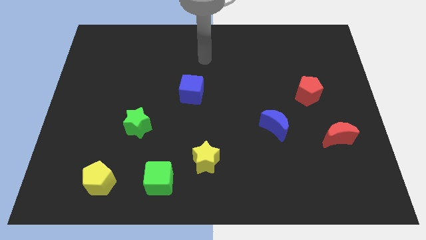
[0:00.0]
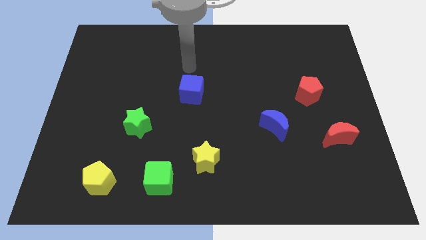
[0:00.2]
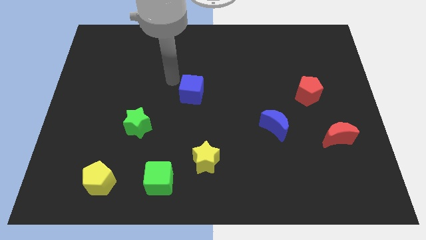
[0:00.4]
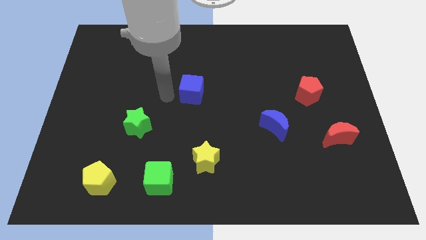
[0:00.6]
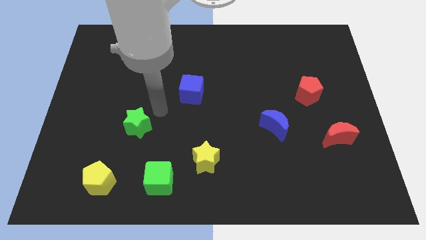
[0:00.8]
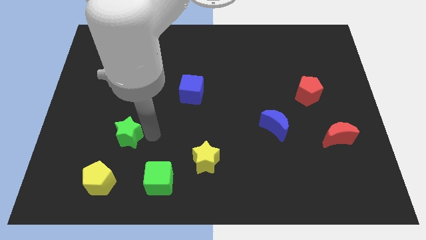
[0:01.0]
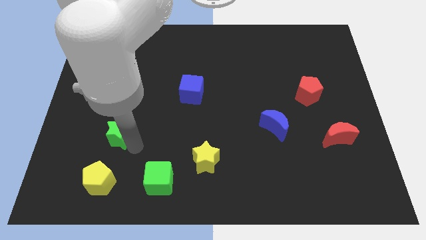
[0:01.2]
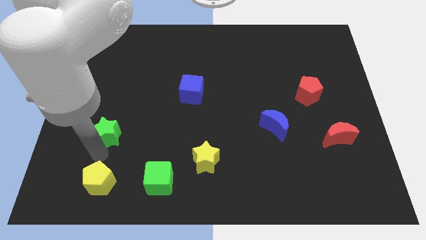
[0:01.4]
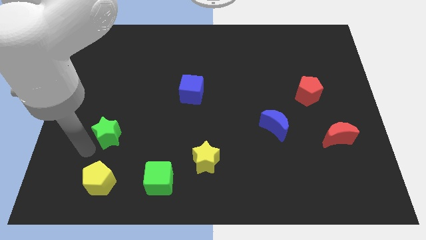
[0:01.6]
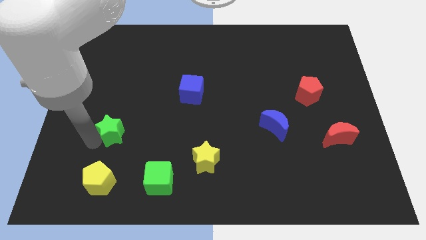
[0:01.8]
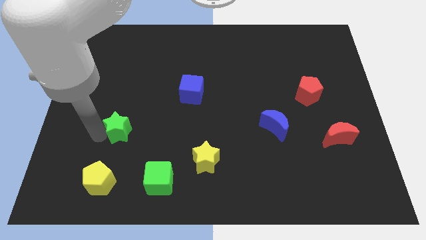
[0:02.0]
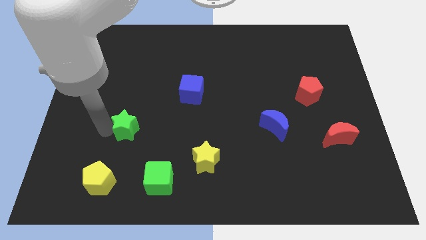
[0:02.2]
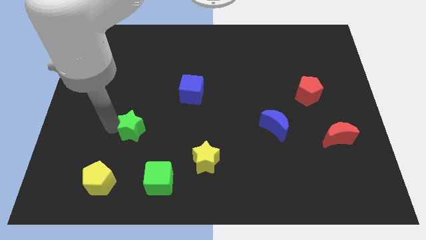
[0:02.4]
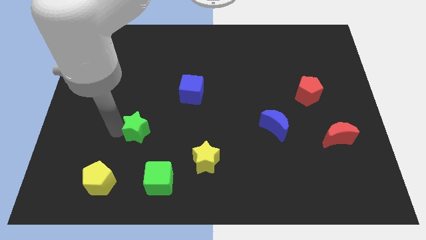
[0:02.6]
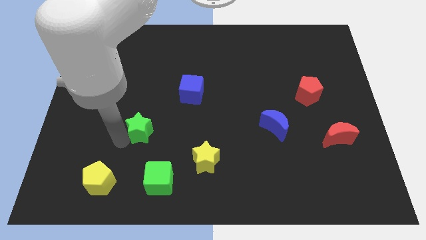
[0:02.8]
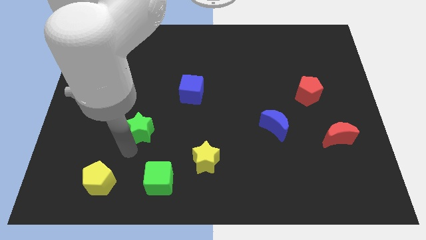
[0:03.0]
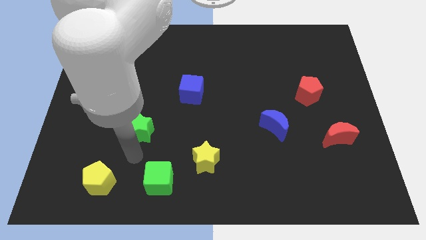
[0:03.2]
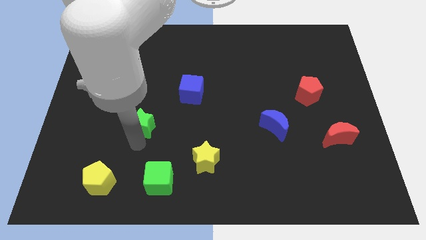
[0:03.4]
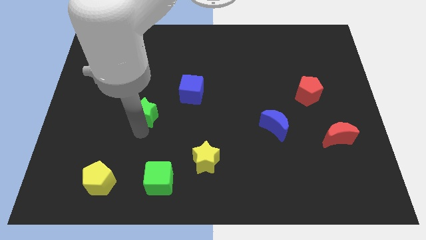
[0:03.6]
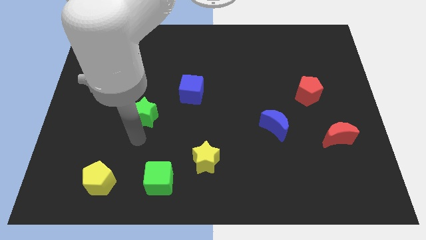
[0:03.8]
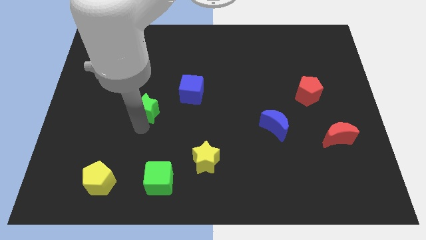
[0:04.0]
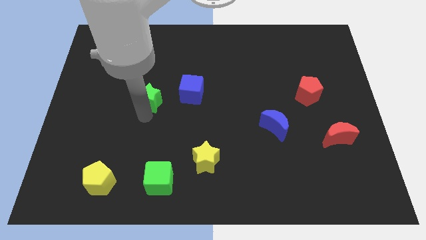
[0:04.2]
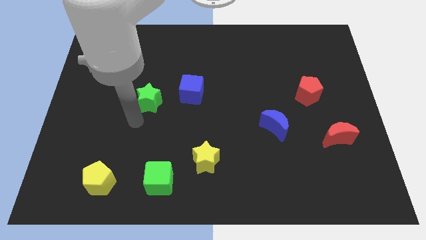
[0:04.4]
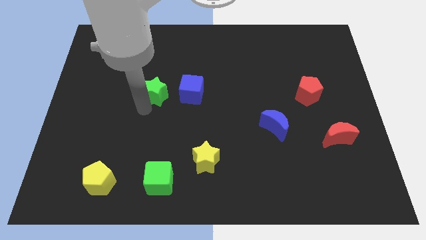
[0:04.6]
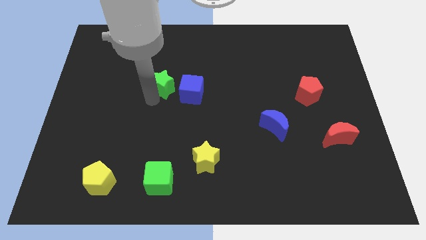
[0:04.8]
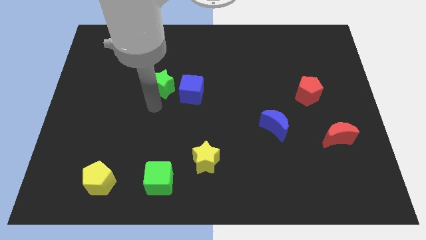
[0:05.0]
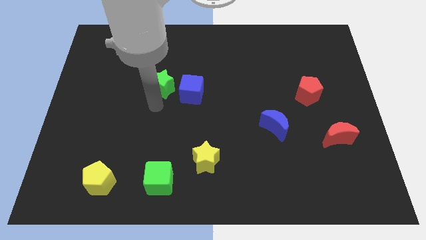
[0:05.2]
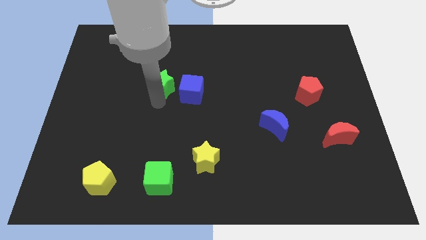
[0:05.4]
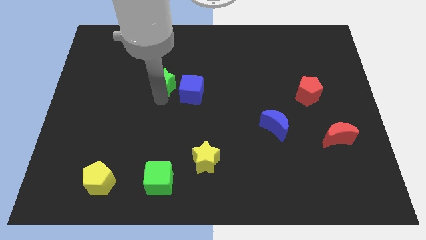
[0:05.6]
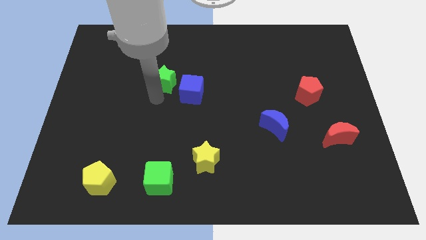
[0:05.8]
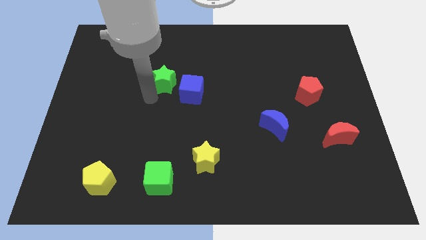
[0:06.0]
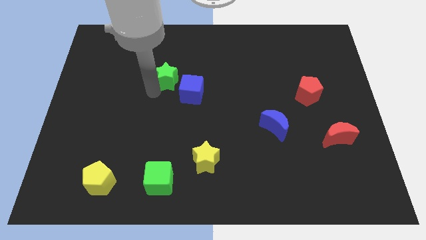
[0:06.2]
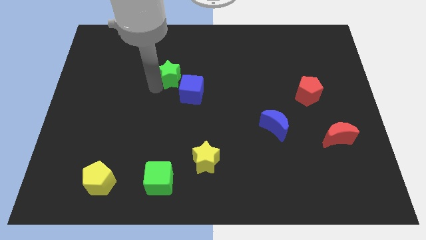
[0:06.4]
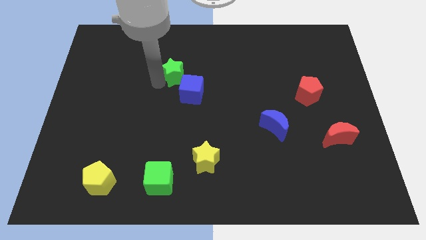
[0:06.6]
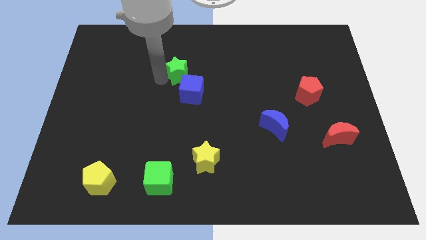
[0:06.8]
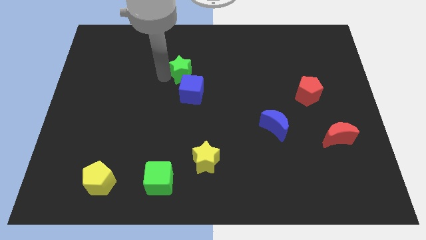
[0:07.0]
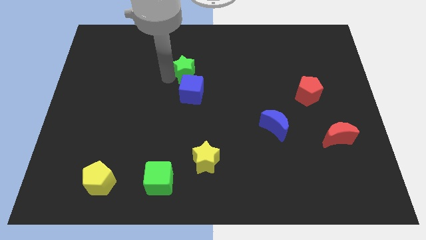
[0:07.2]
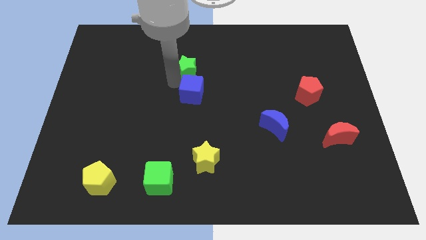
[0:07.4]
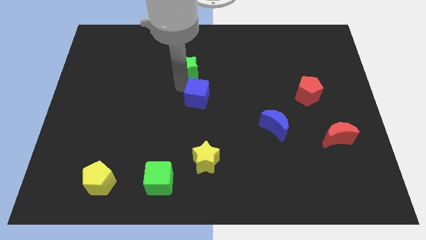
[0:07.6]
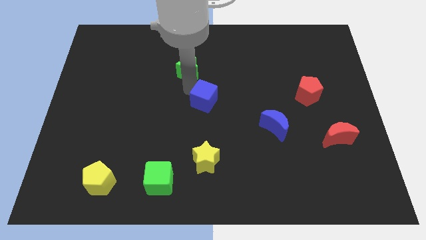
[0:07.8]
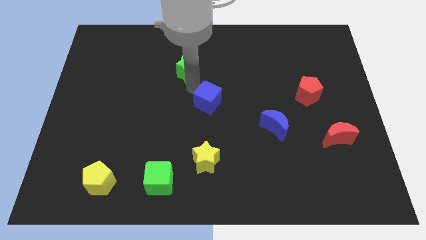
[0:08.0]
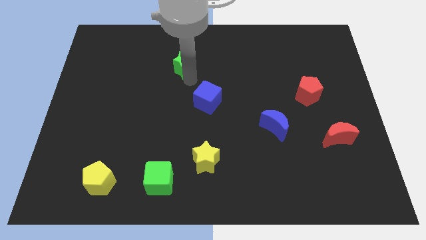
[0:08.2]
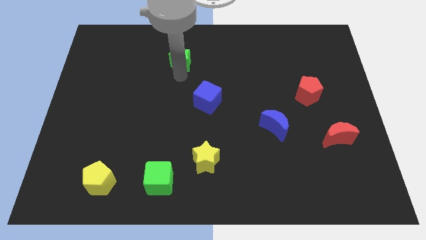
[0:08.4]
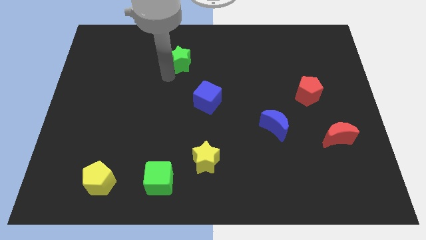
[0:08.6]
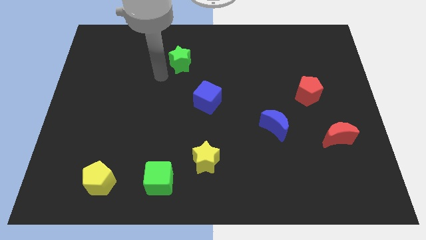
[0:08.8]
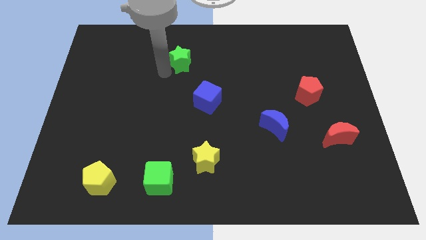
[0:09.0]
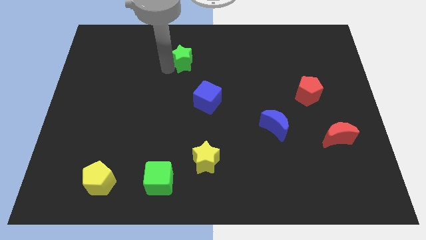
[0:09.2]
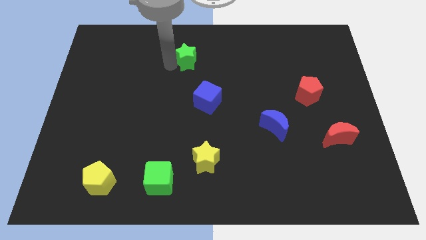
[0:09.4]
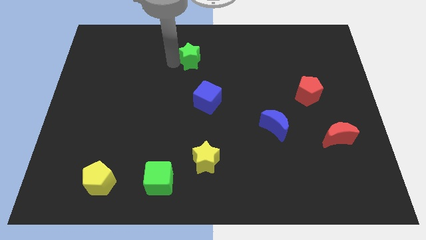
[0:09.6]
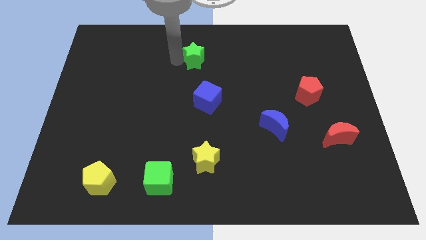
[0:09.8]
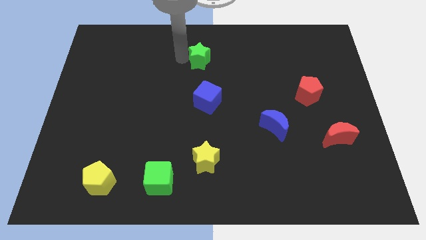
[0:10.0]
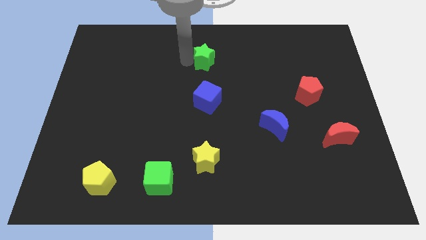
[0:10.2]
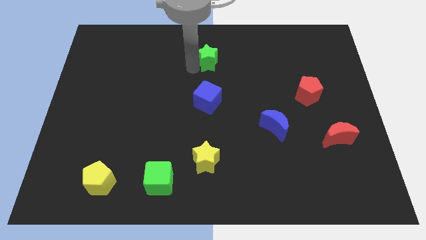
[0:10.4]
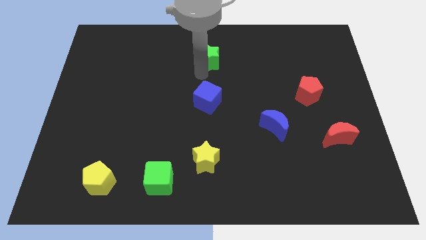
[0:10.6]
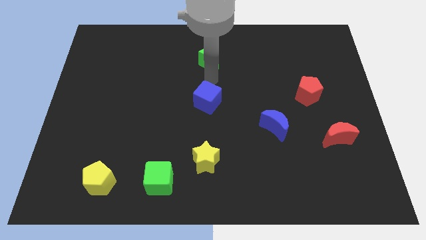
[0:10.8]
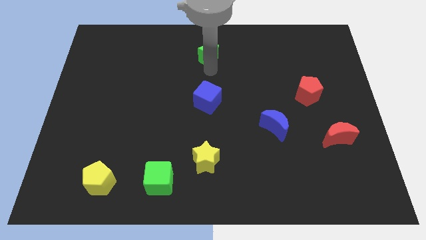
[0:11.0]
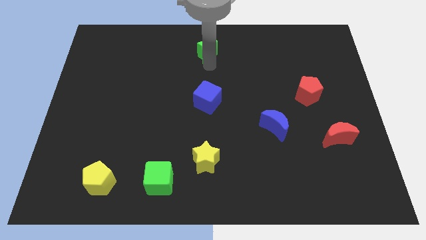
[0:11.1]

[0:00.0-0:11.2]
push the green star to the towards your base

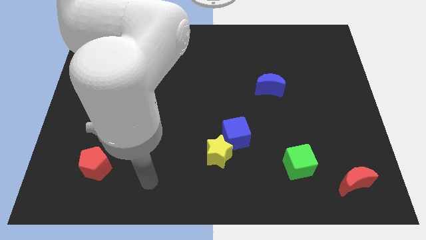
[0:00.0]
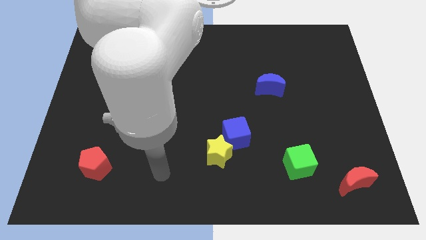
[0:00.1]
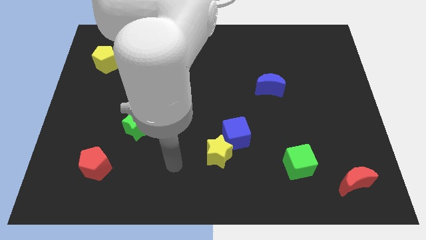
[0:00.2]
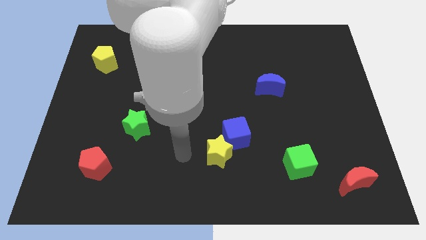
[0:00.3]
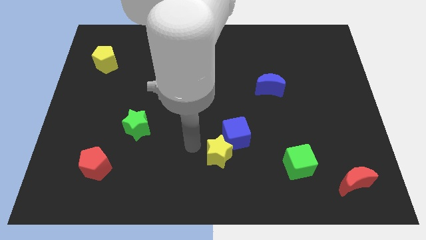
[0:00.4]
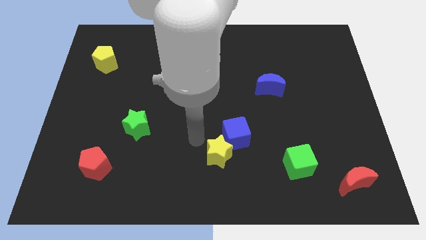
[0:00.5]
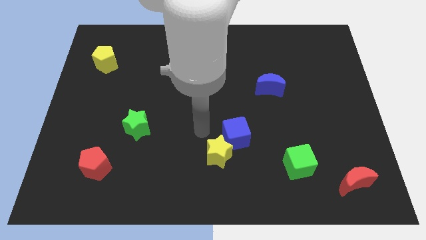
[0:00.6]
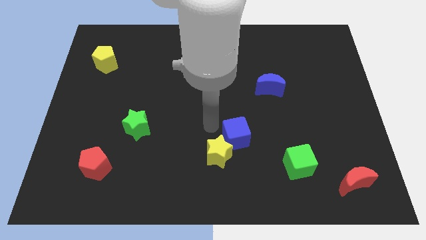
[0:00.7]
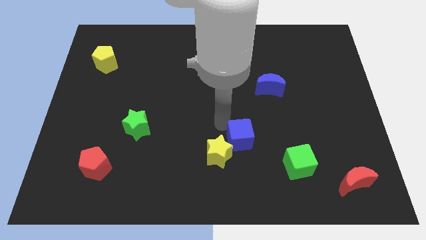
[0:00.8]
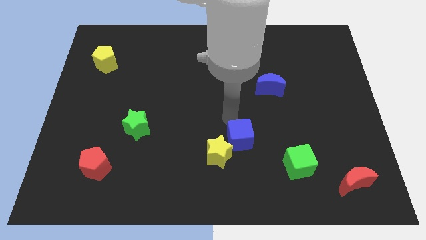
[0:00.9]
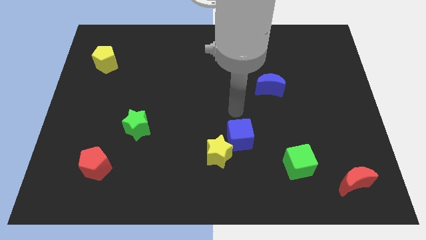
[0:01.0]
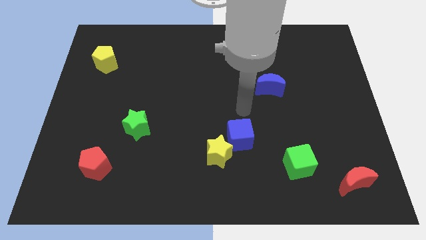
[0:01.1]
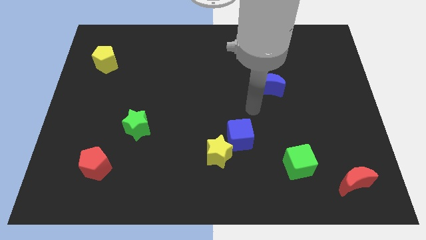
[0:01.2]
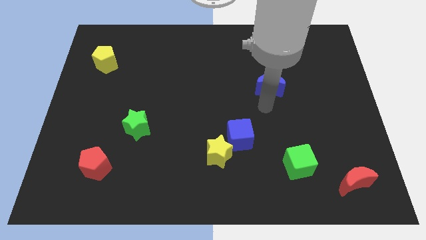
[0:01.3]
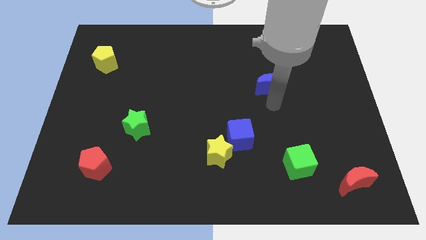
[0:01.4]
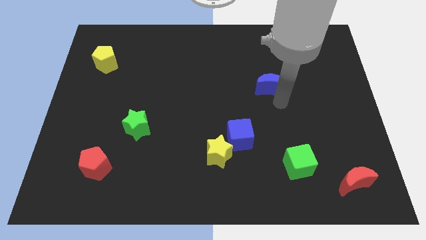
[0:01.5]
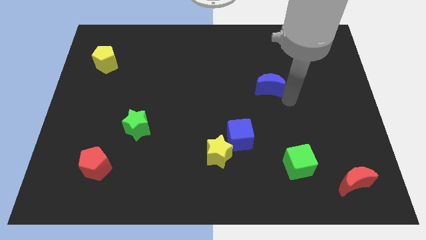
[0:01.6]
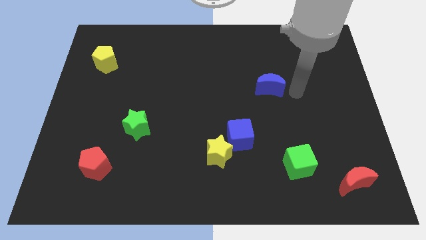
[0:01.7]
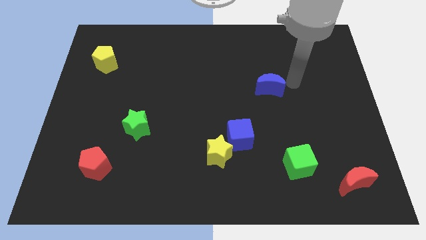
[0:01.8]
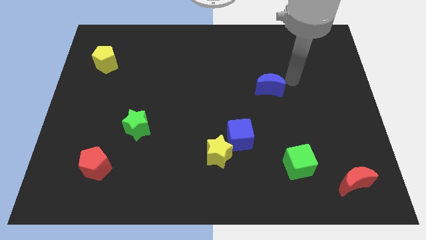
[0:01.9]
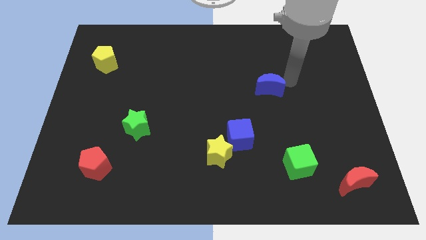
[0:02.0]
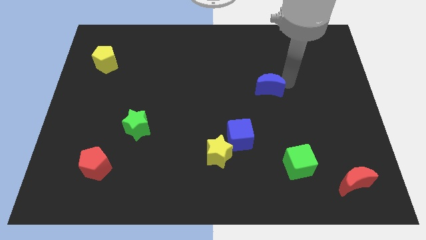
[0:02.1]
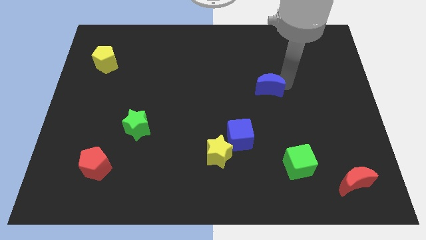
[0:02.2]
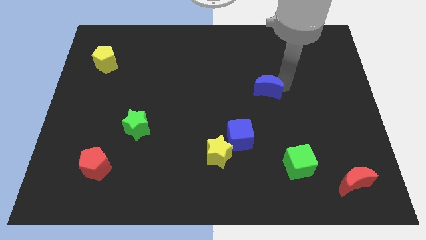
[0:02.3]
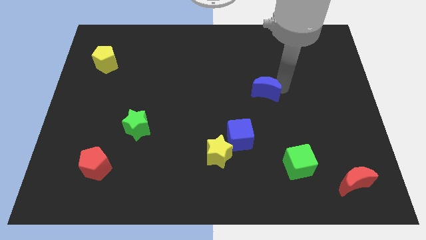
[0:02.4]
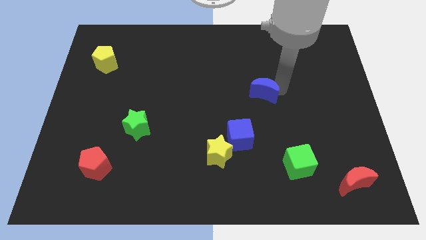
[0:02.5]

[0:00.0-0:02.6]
slide the blue moon to the center
